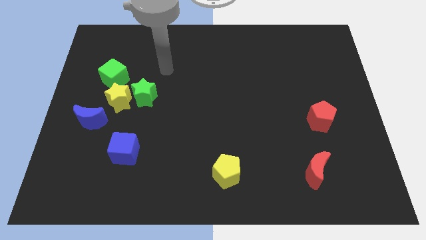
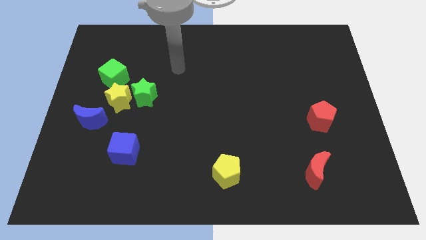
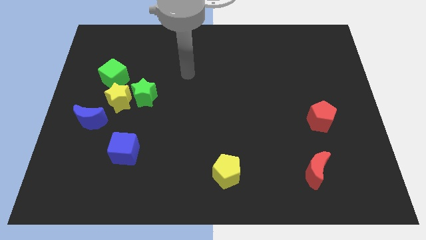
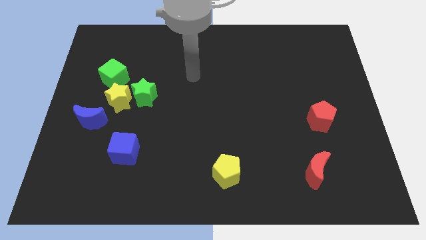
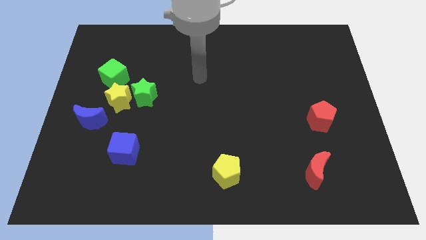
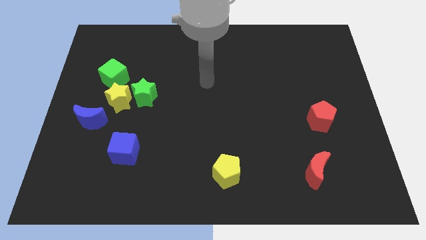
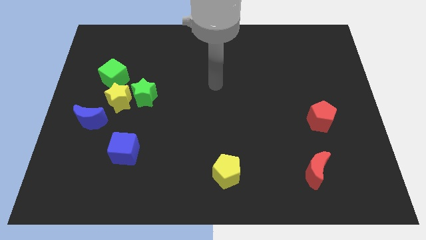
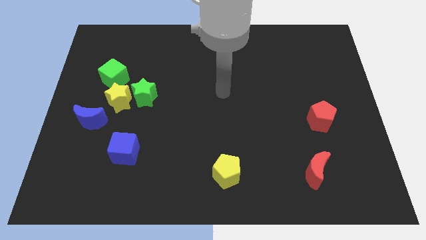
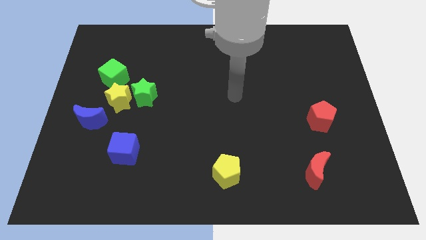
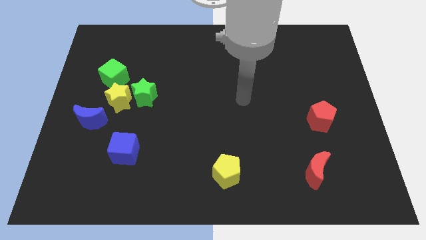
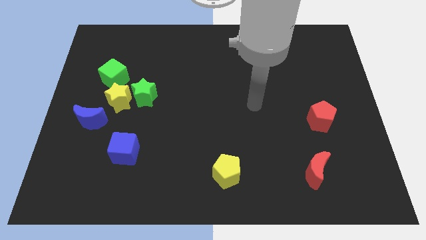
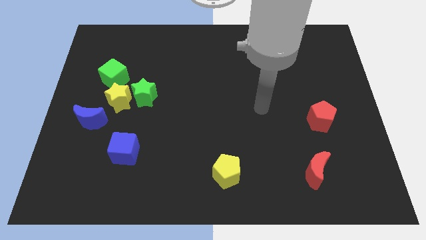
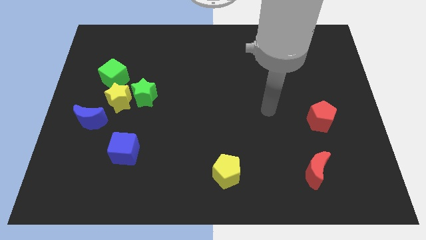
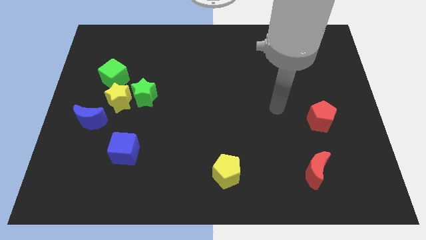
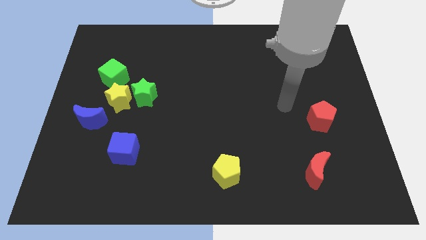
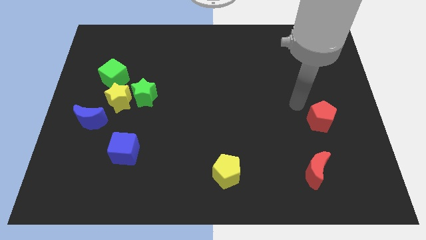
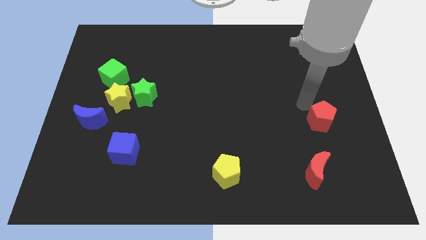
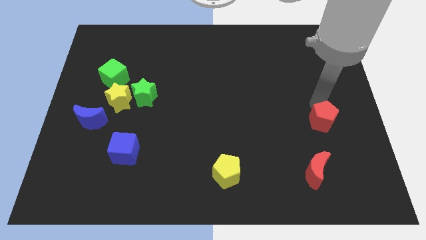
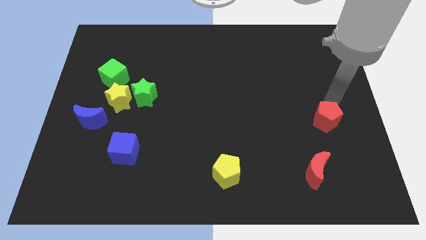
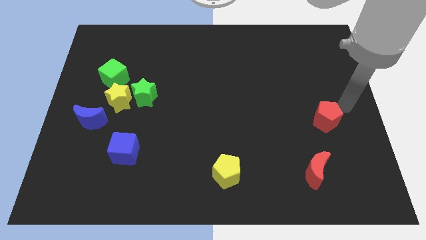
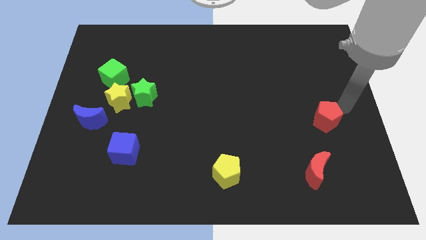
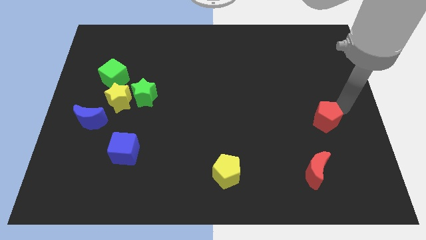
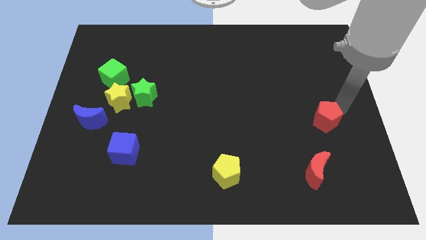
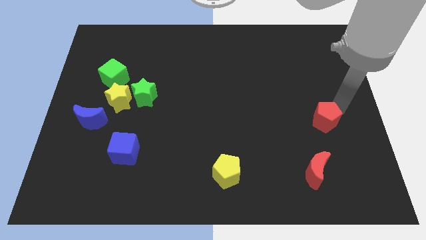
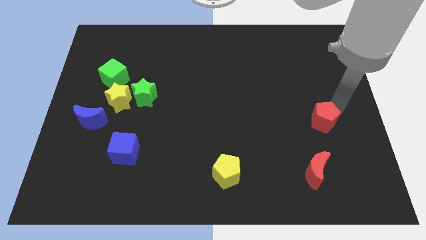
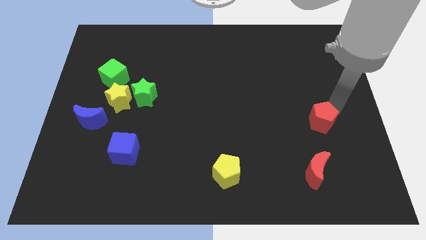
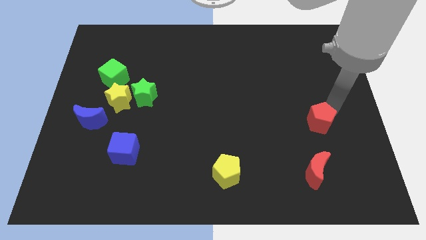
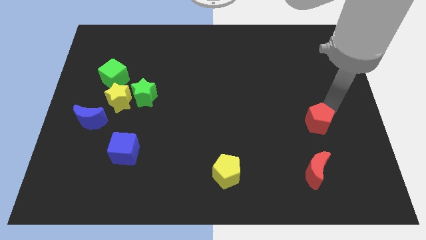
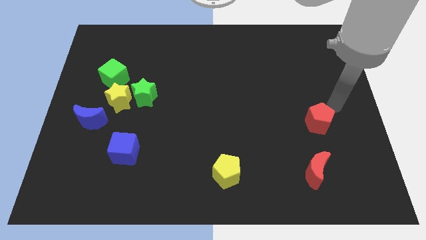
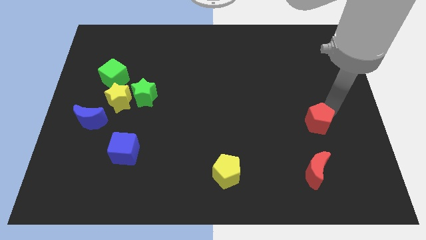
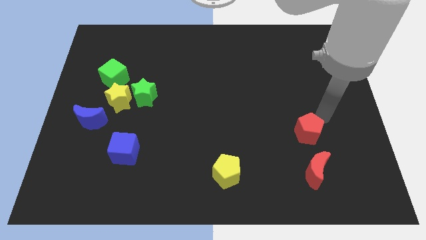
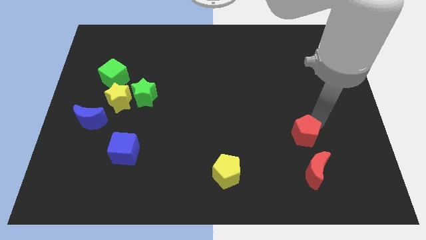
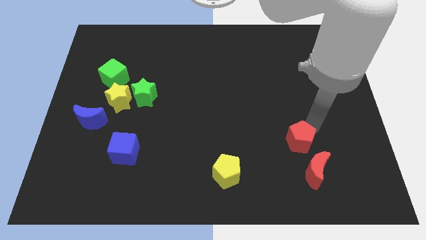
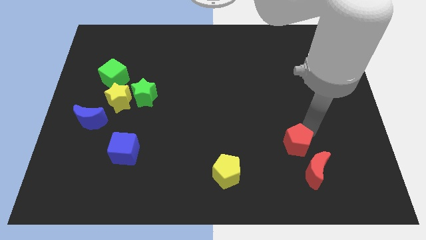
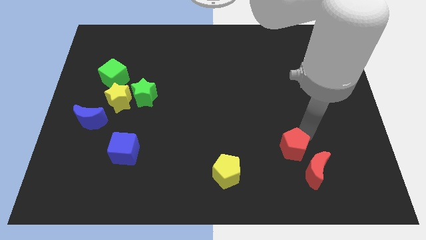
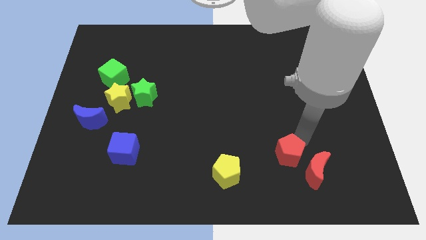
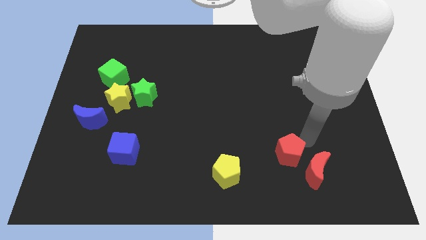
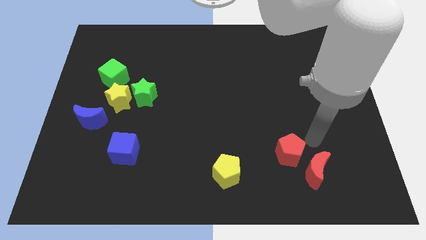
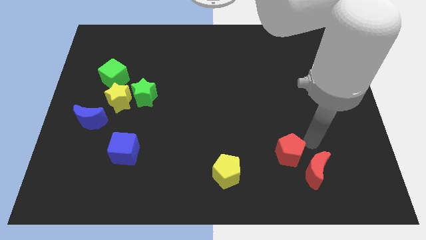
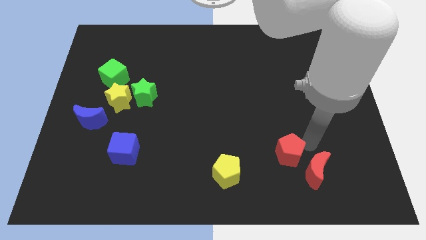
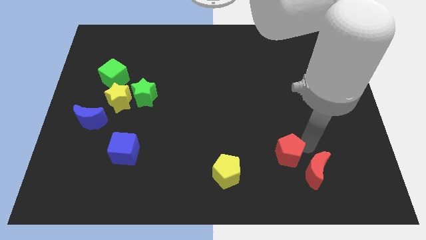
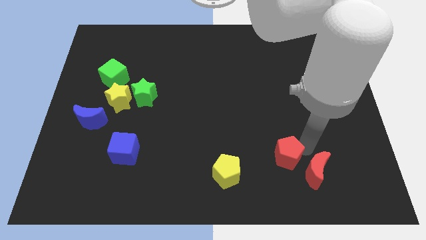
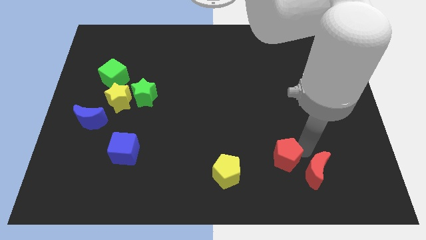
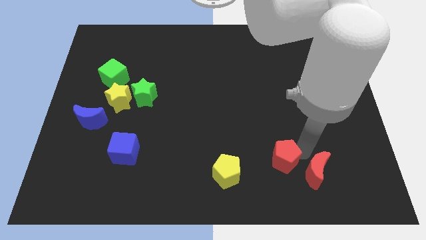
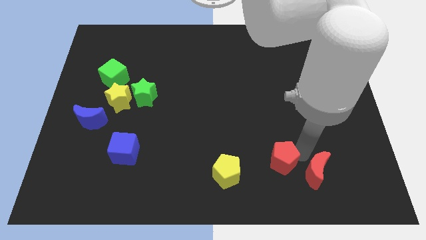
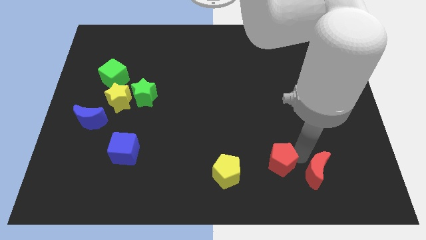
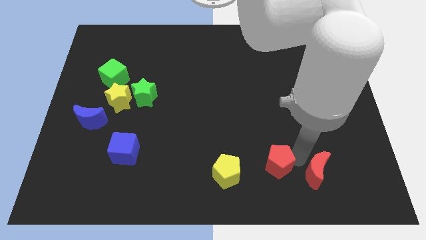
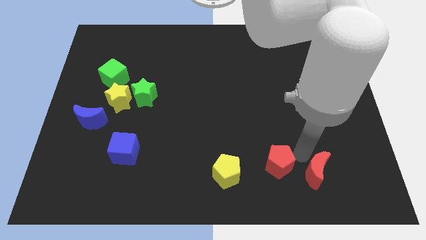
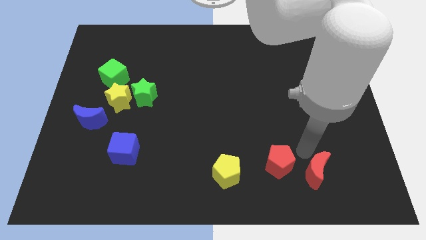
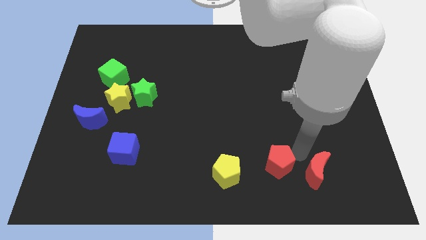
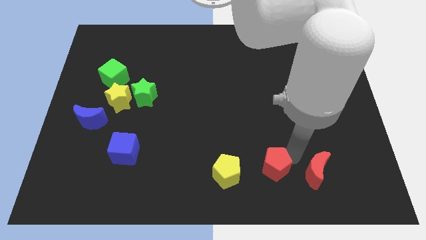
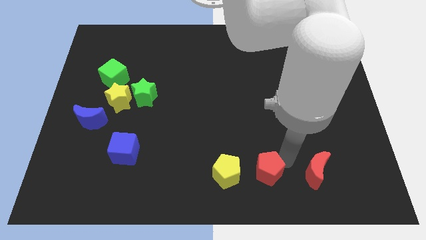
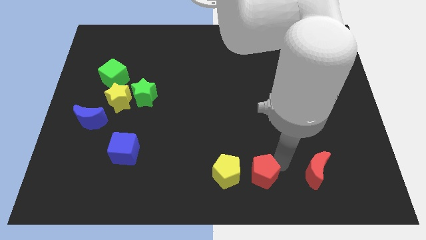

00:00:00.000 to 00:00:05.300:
put the red pentagon to the bottom side
